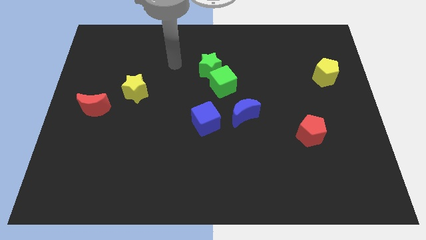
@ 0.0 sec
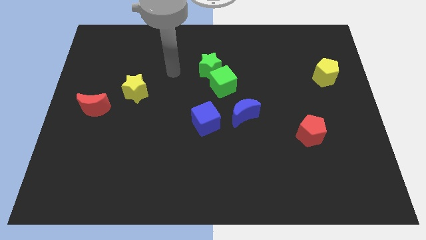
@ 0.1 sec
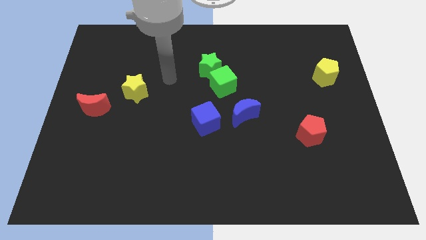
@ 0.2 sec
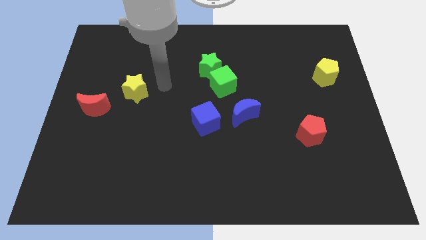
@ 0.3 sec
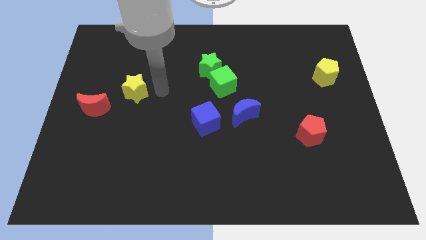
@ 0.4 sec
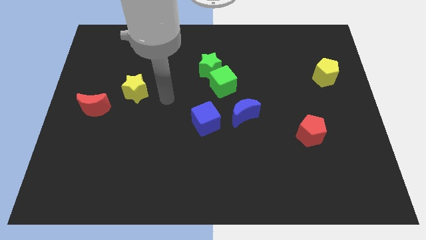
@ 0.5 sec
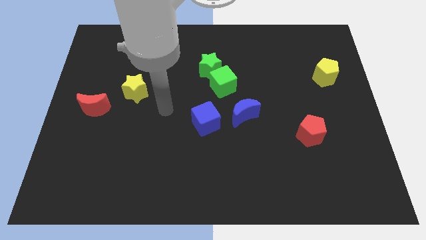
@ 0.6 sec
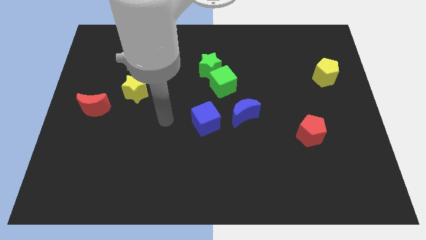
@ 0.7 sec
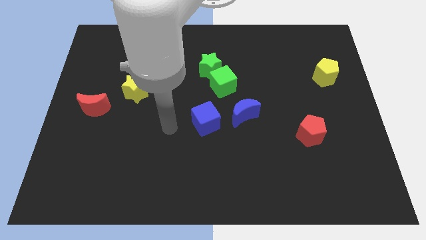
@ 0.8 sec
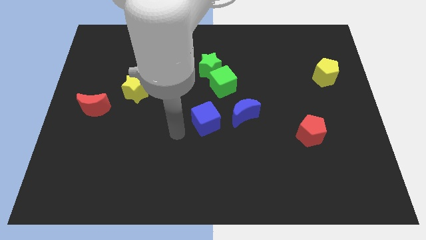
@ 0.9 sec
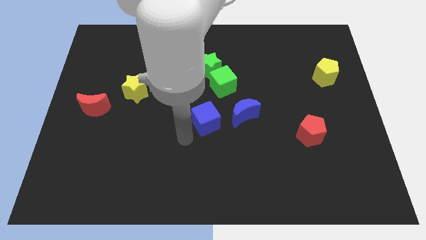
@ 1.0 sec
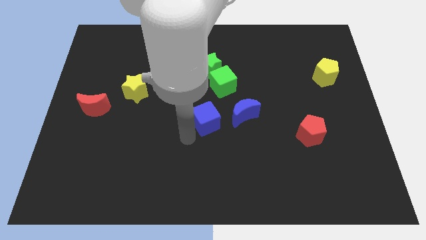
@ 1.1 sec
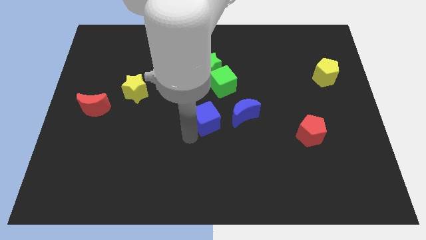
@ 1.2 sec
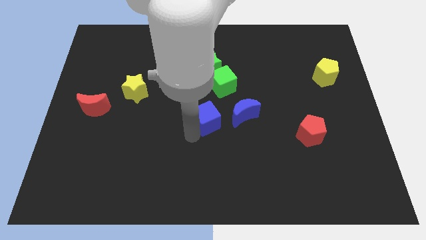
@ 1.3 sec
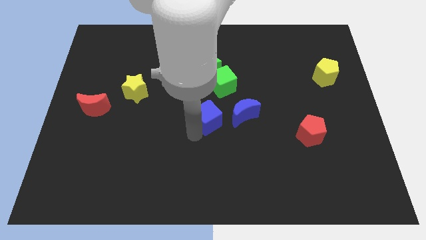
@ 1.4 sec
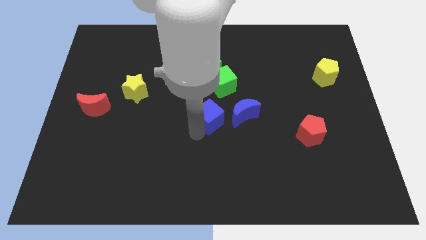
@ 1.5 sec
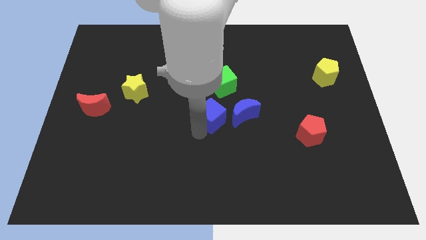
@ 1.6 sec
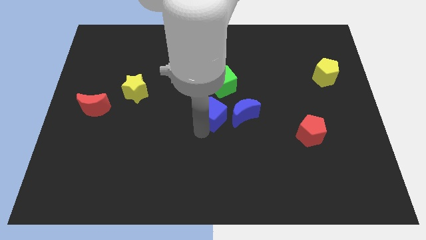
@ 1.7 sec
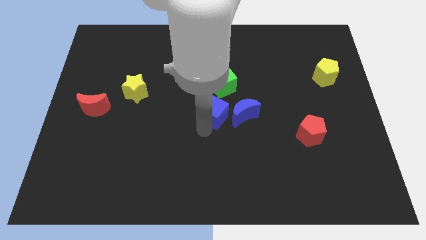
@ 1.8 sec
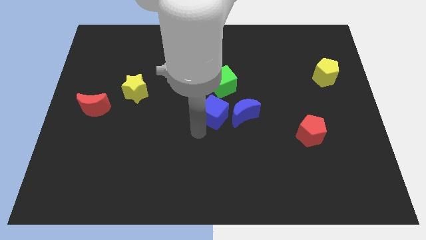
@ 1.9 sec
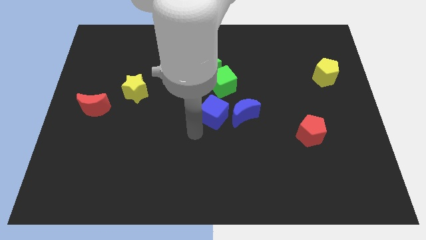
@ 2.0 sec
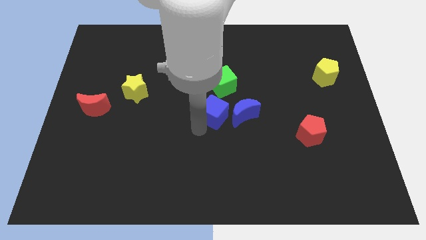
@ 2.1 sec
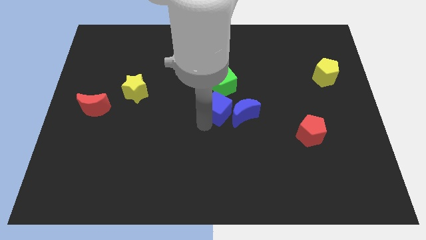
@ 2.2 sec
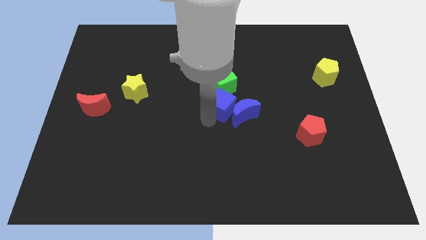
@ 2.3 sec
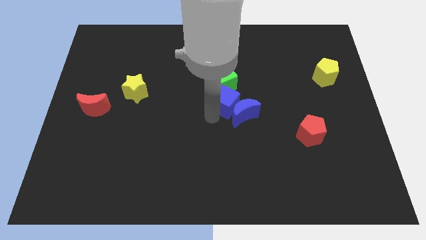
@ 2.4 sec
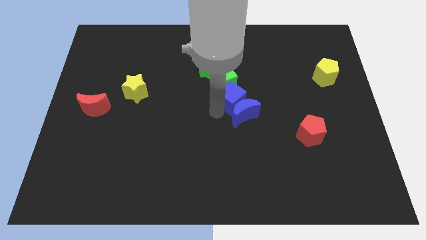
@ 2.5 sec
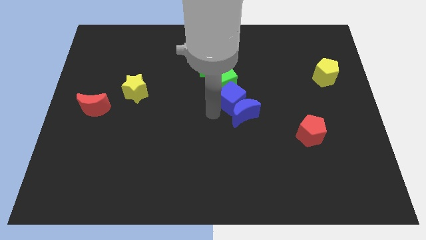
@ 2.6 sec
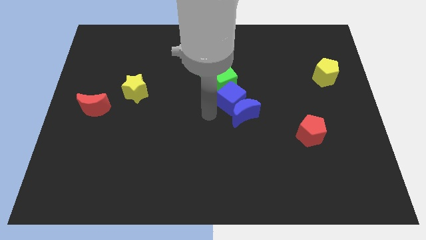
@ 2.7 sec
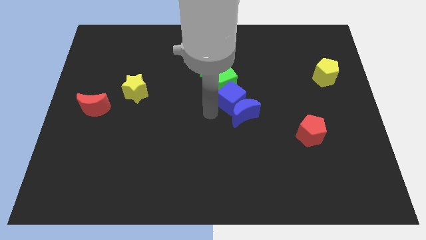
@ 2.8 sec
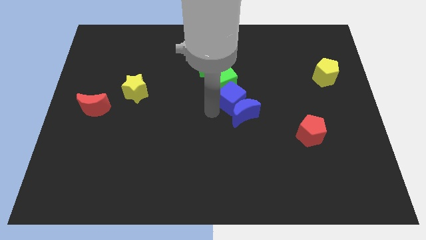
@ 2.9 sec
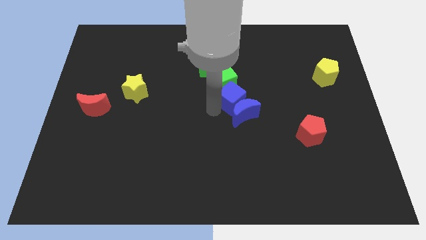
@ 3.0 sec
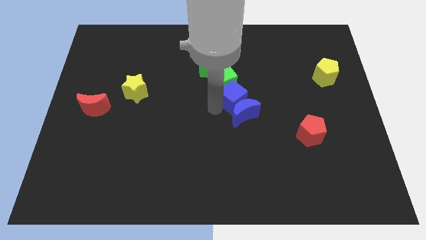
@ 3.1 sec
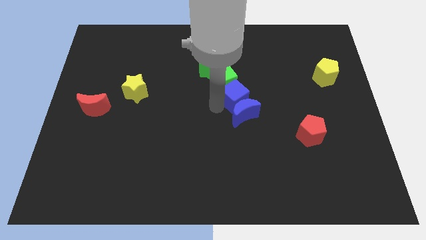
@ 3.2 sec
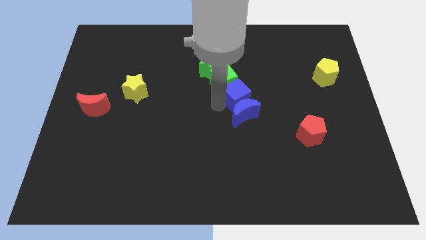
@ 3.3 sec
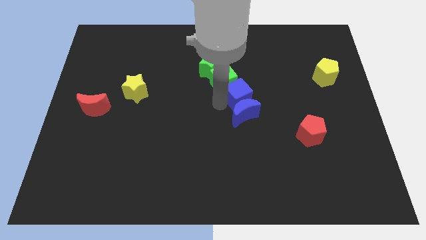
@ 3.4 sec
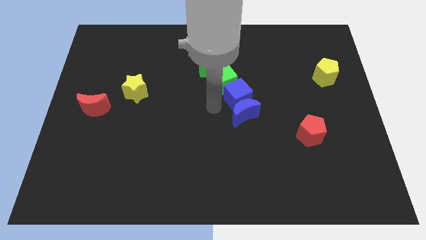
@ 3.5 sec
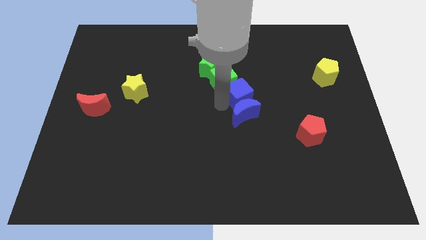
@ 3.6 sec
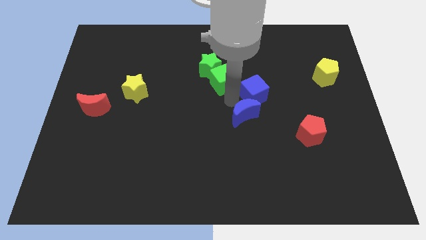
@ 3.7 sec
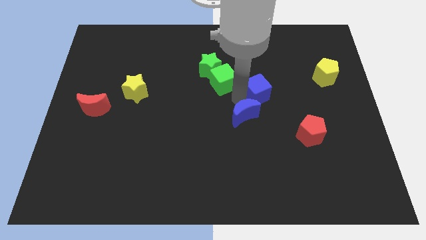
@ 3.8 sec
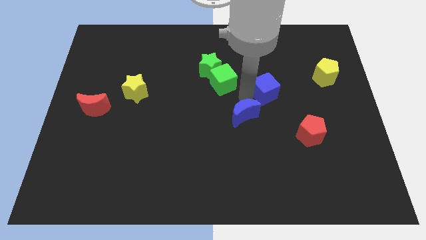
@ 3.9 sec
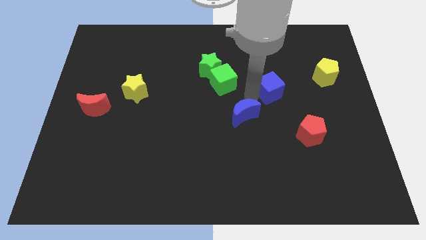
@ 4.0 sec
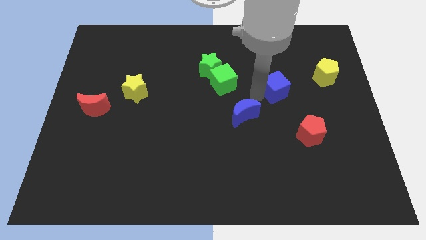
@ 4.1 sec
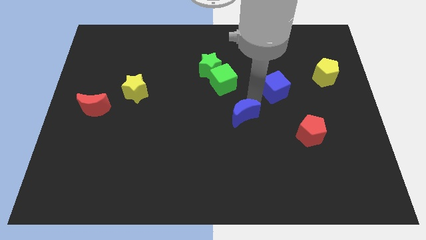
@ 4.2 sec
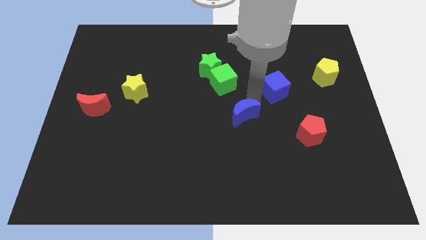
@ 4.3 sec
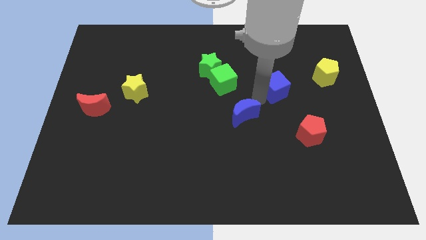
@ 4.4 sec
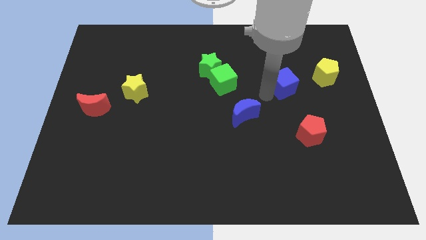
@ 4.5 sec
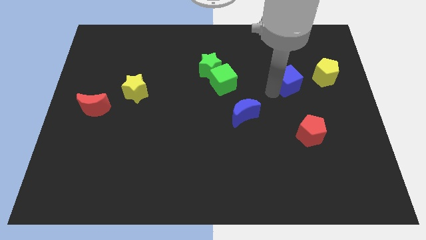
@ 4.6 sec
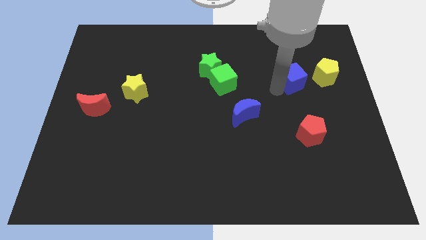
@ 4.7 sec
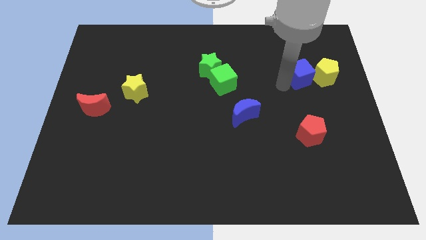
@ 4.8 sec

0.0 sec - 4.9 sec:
move the blue cube close to the yellow pentagon

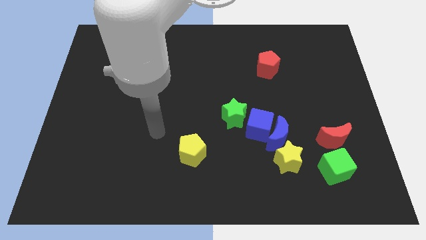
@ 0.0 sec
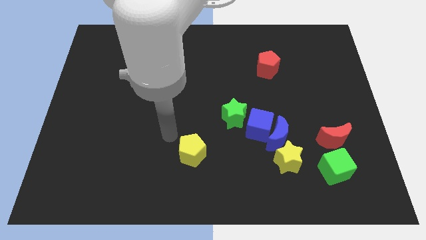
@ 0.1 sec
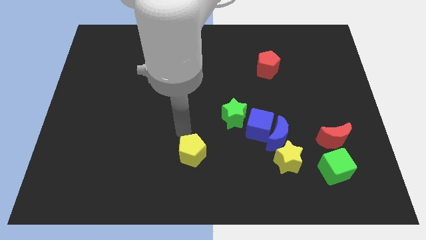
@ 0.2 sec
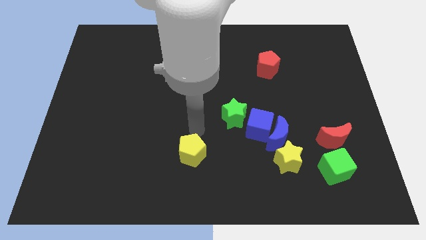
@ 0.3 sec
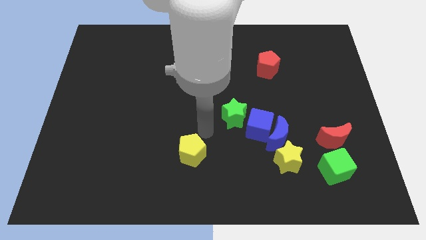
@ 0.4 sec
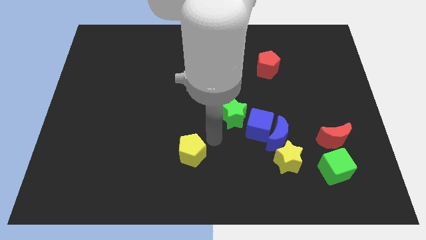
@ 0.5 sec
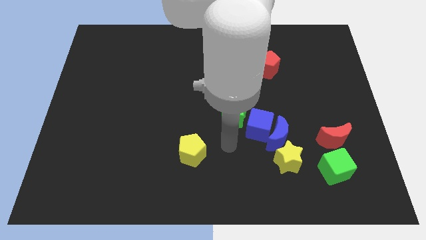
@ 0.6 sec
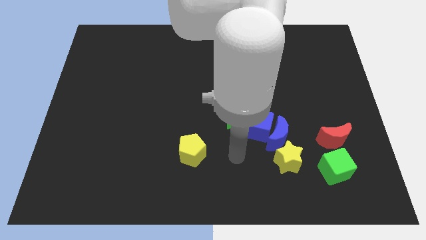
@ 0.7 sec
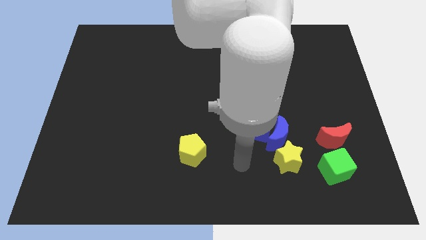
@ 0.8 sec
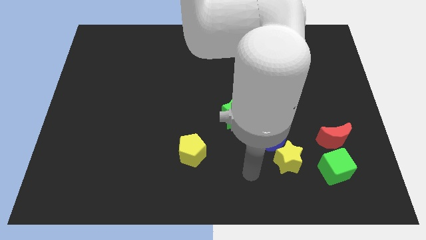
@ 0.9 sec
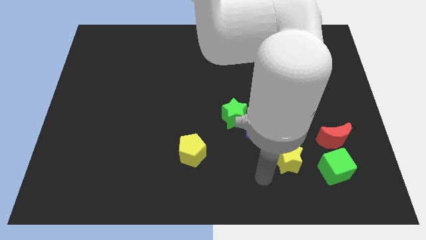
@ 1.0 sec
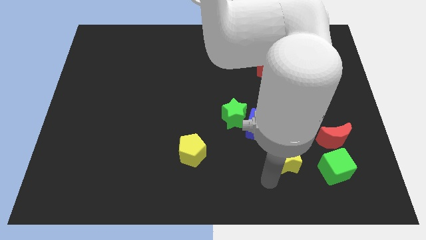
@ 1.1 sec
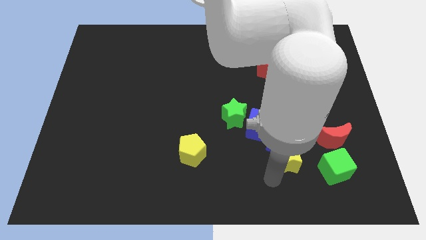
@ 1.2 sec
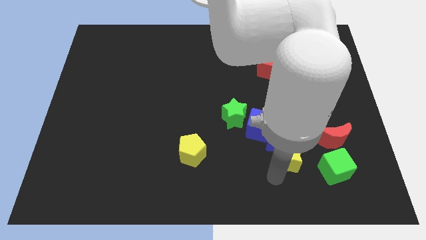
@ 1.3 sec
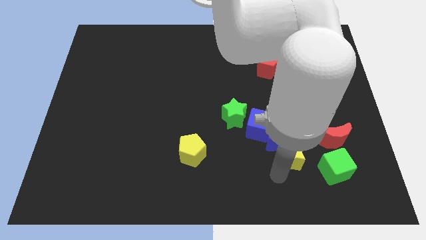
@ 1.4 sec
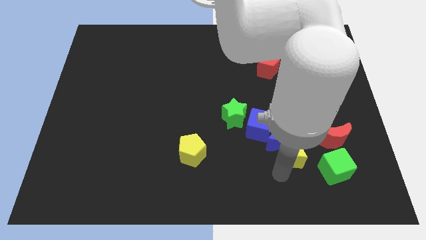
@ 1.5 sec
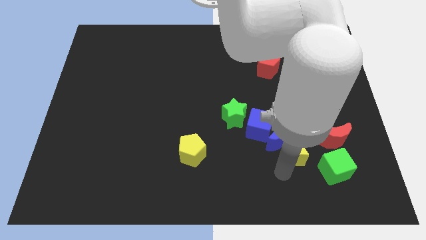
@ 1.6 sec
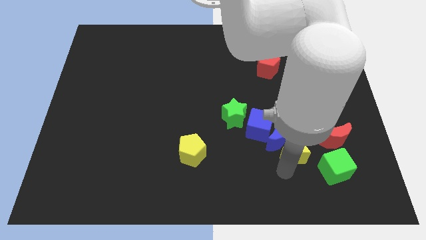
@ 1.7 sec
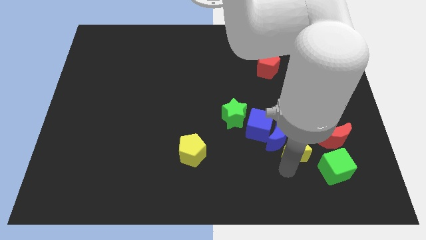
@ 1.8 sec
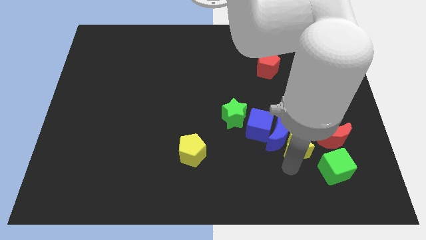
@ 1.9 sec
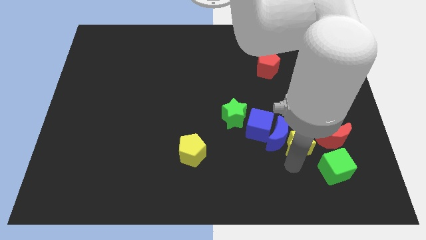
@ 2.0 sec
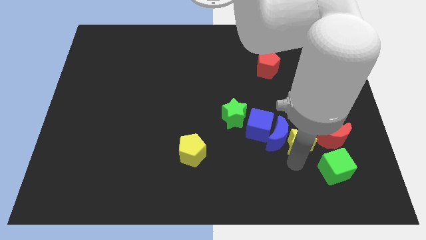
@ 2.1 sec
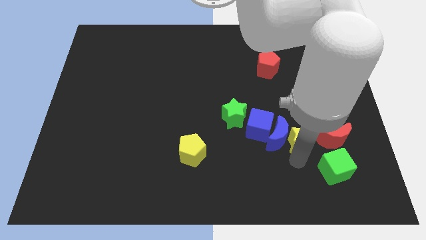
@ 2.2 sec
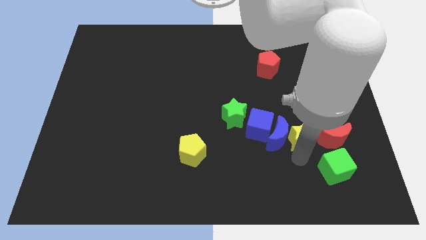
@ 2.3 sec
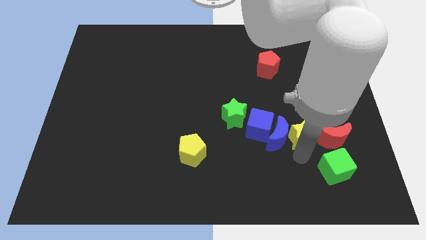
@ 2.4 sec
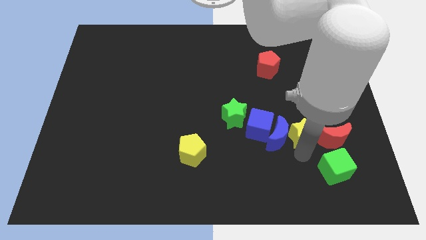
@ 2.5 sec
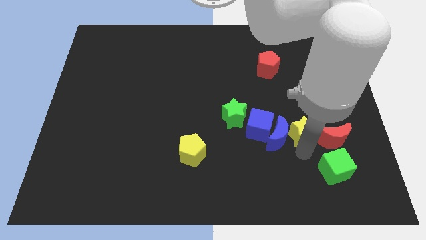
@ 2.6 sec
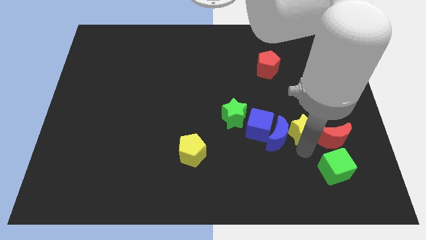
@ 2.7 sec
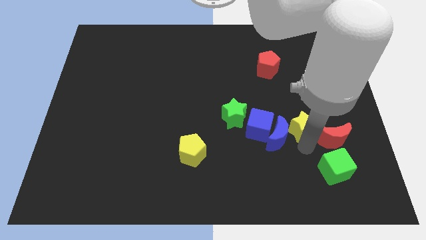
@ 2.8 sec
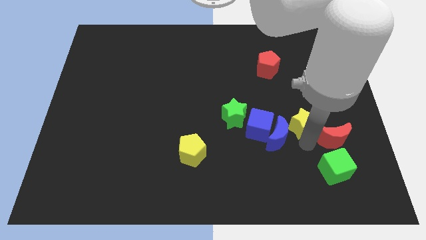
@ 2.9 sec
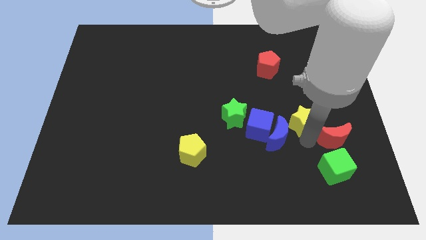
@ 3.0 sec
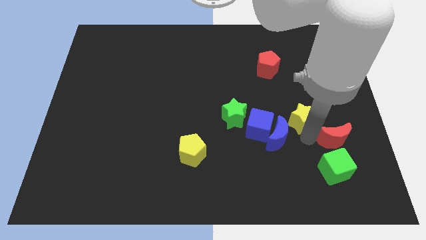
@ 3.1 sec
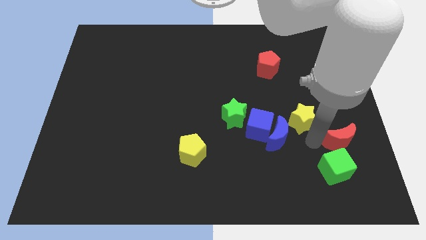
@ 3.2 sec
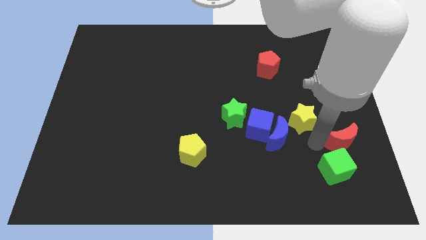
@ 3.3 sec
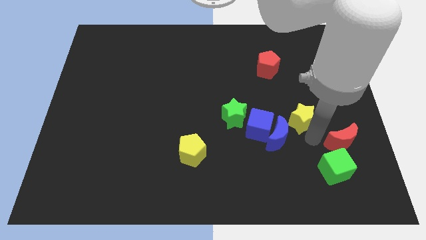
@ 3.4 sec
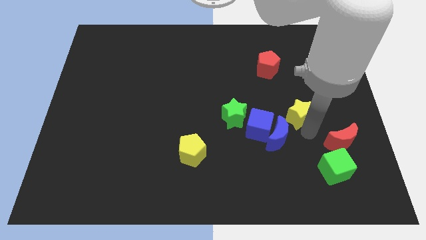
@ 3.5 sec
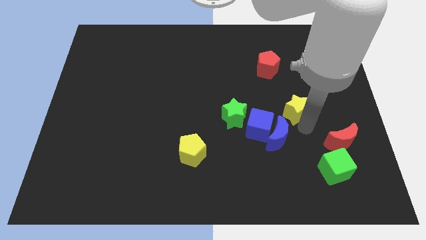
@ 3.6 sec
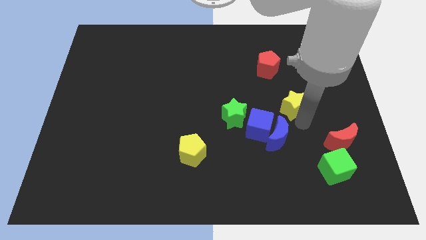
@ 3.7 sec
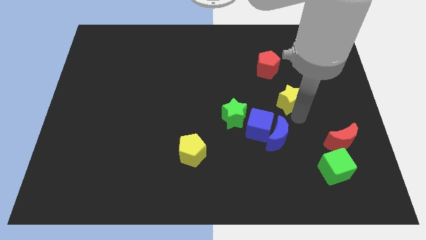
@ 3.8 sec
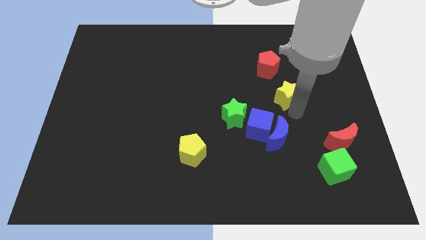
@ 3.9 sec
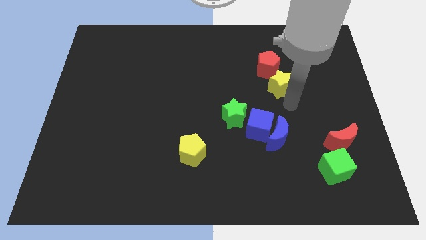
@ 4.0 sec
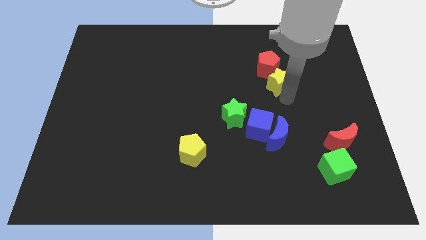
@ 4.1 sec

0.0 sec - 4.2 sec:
move the yellow star towards the red pentagon
